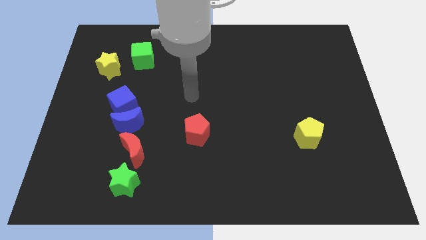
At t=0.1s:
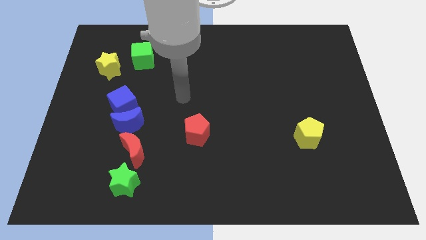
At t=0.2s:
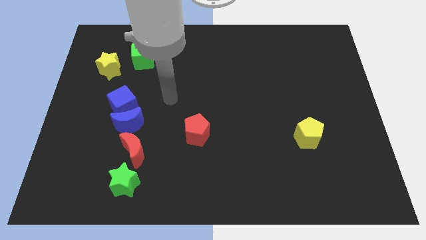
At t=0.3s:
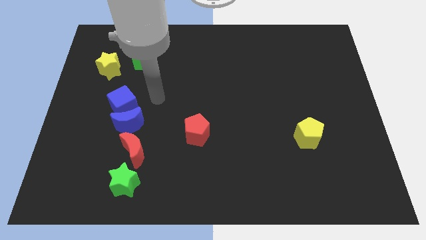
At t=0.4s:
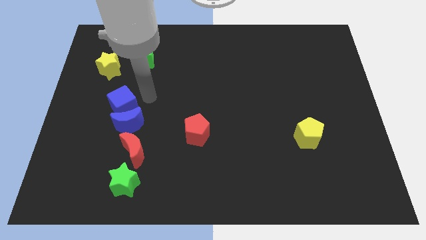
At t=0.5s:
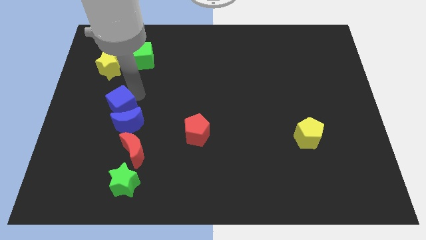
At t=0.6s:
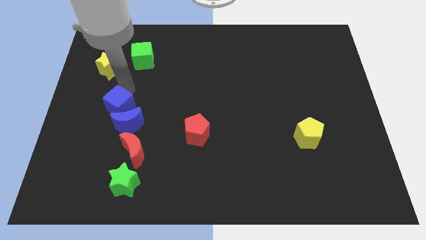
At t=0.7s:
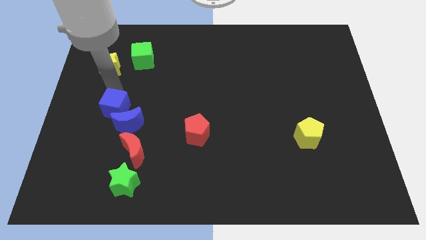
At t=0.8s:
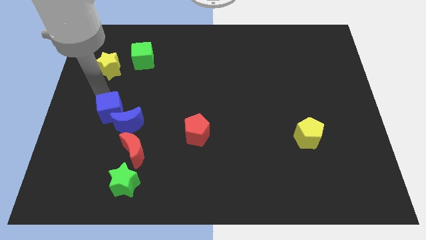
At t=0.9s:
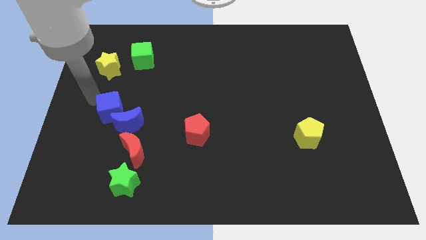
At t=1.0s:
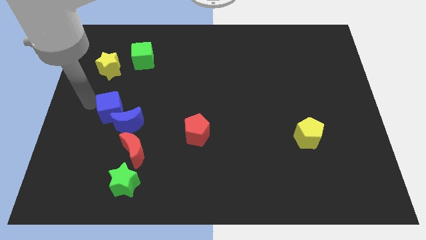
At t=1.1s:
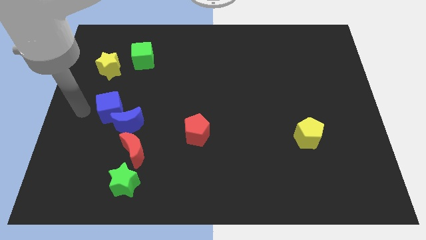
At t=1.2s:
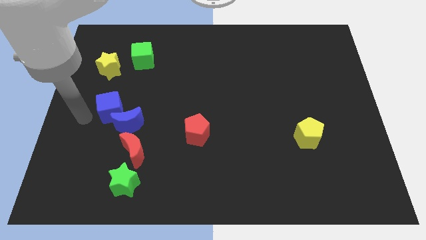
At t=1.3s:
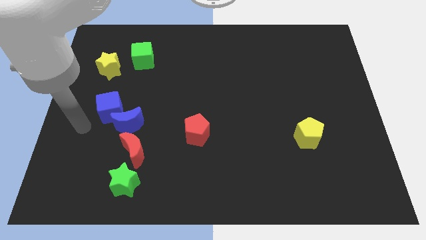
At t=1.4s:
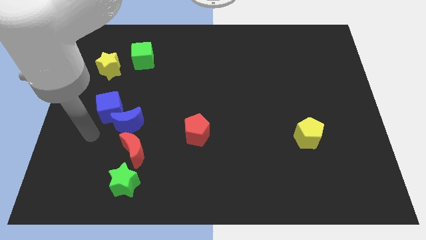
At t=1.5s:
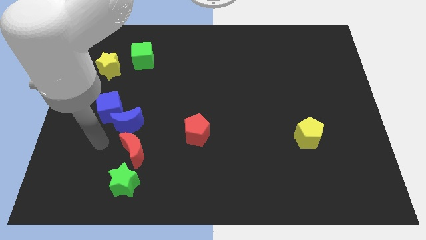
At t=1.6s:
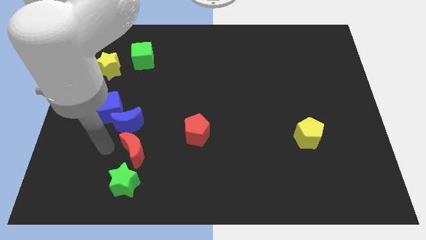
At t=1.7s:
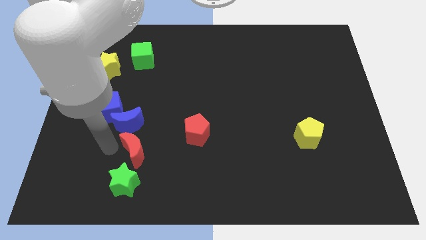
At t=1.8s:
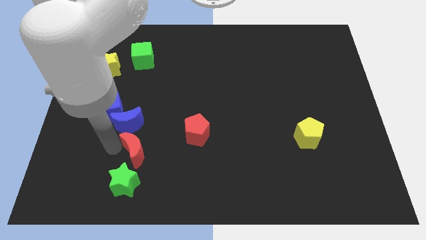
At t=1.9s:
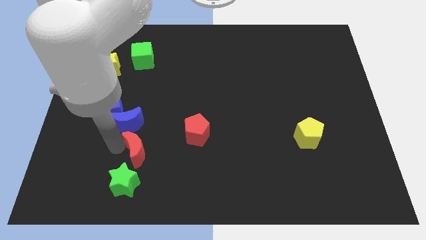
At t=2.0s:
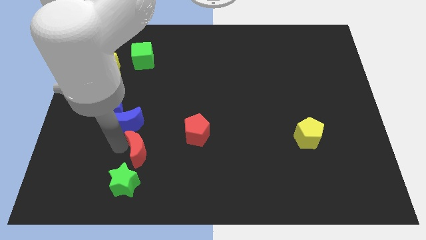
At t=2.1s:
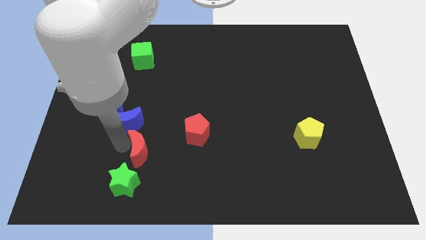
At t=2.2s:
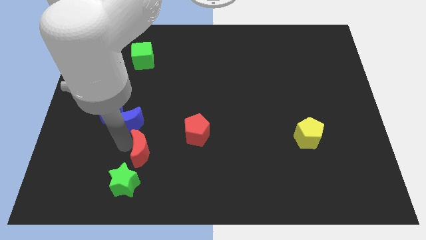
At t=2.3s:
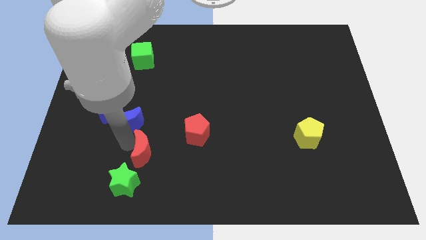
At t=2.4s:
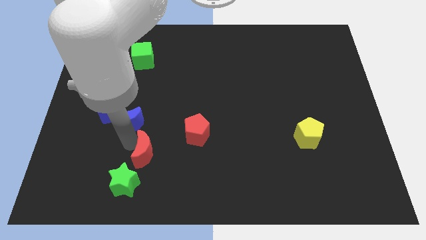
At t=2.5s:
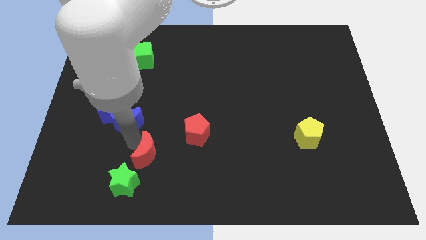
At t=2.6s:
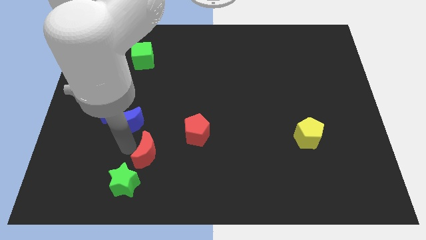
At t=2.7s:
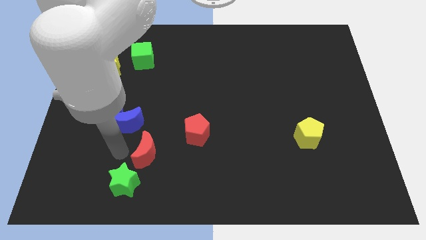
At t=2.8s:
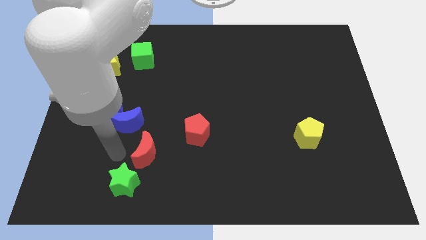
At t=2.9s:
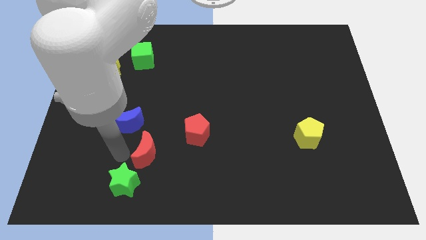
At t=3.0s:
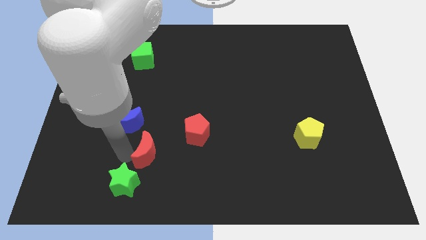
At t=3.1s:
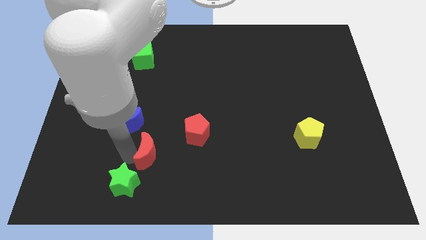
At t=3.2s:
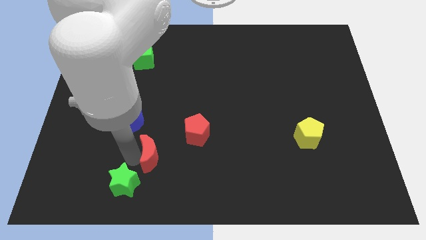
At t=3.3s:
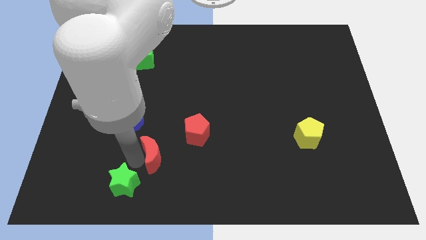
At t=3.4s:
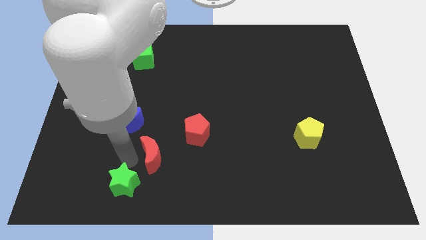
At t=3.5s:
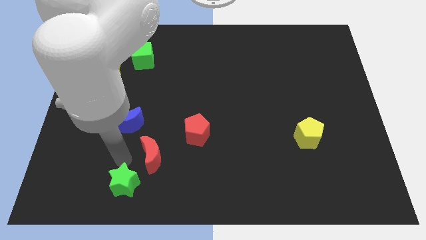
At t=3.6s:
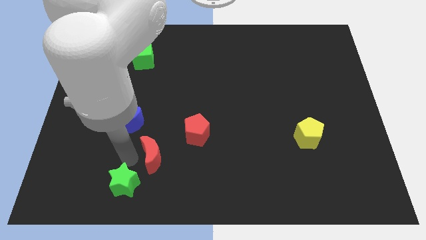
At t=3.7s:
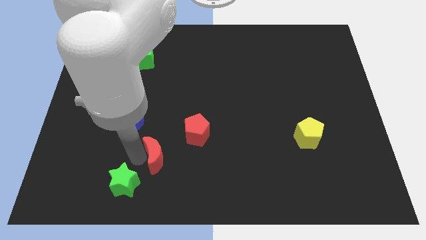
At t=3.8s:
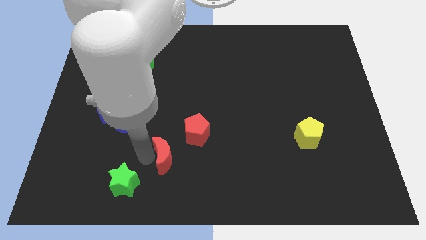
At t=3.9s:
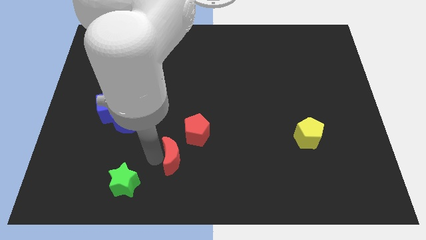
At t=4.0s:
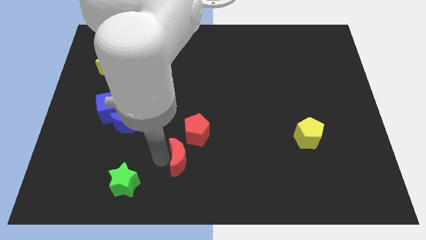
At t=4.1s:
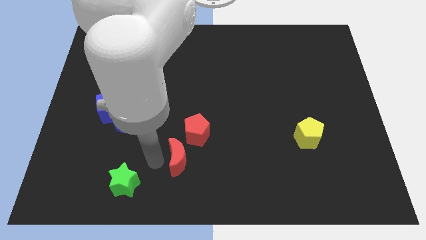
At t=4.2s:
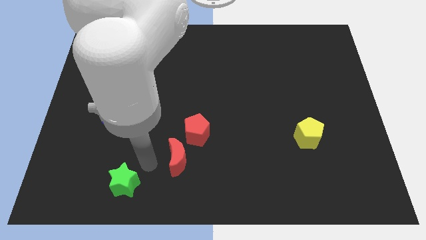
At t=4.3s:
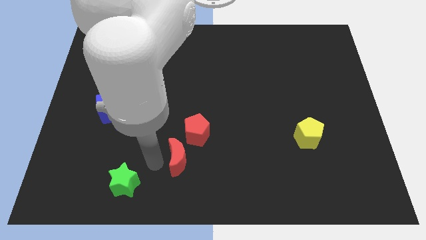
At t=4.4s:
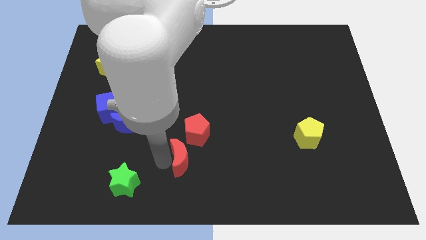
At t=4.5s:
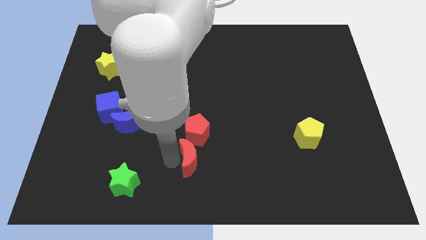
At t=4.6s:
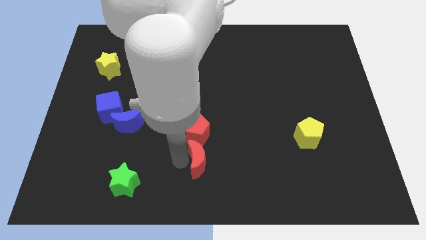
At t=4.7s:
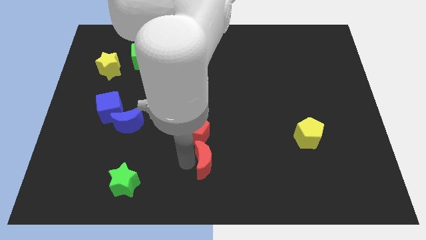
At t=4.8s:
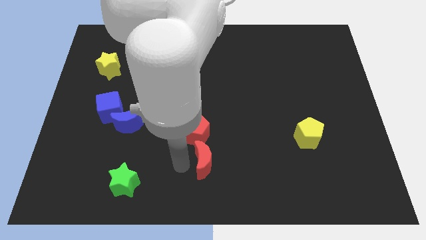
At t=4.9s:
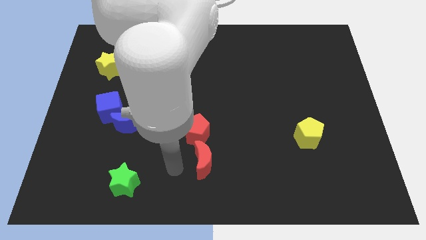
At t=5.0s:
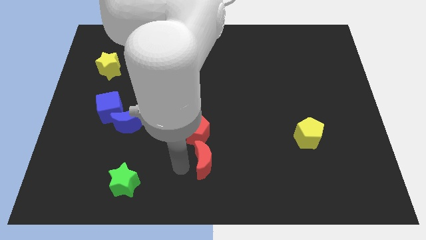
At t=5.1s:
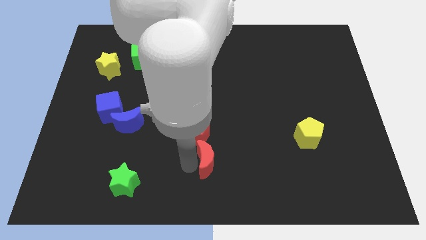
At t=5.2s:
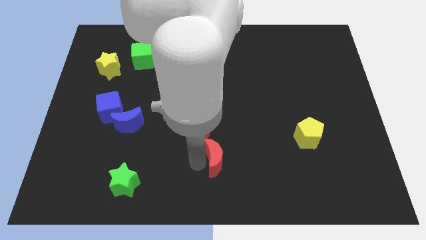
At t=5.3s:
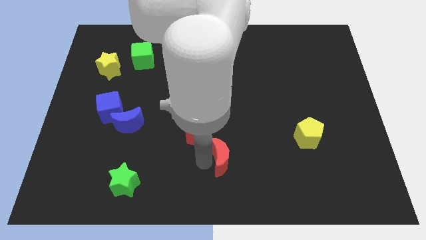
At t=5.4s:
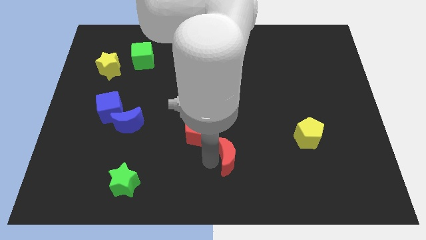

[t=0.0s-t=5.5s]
move the red moon right

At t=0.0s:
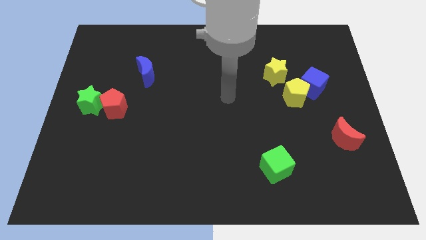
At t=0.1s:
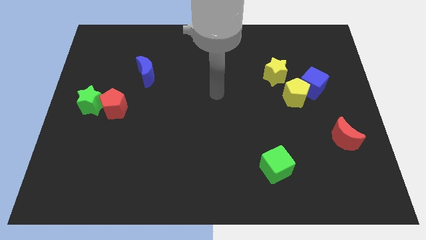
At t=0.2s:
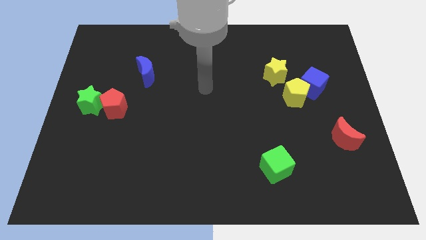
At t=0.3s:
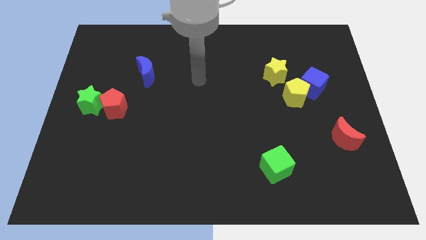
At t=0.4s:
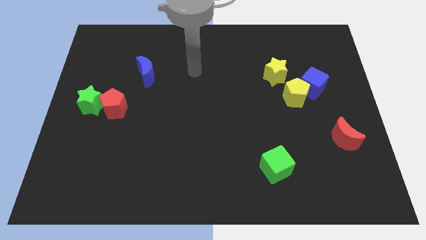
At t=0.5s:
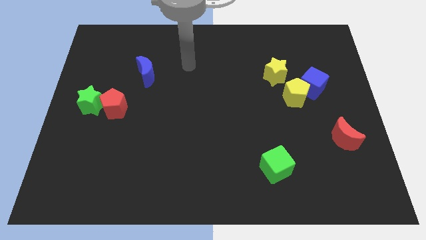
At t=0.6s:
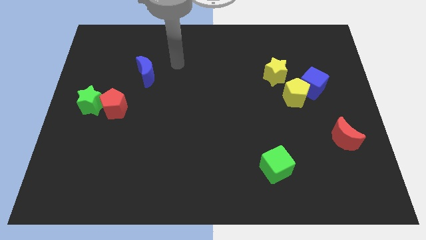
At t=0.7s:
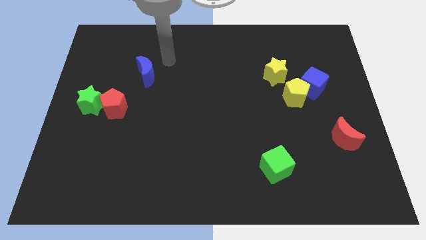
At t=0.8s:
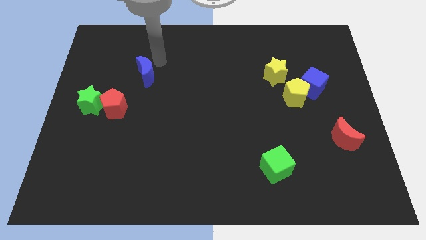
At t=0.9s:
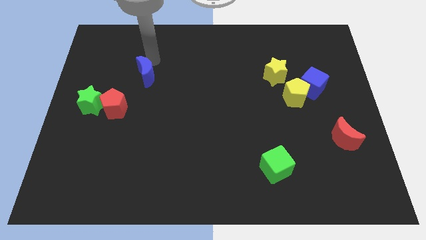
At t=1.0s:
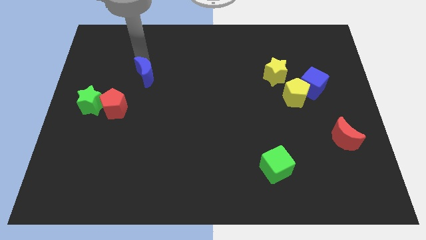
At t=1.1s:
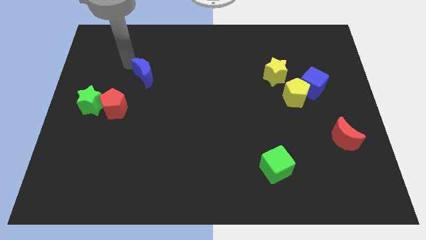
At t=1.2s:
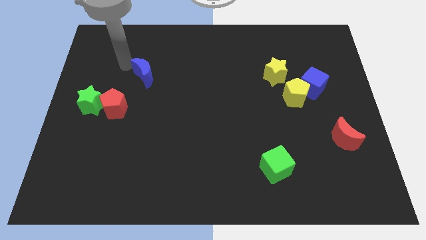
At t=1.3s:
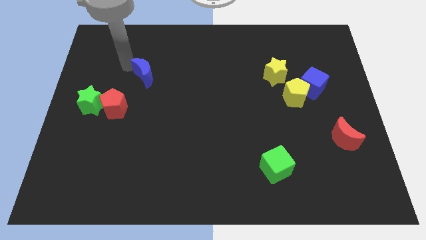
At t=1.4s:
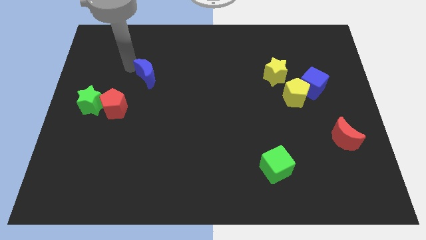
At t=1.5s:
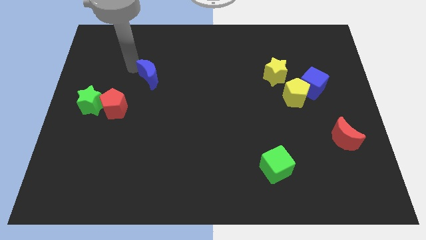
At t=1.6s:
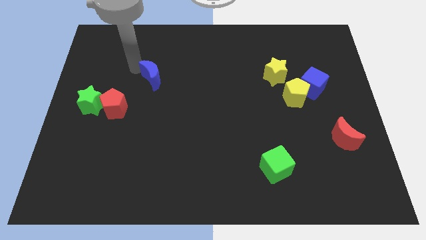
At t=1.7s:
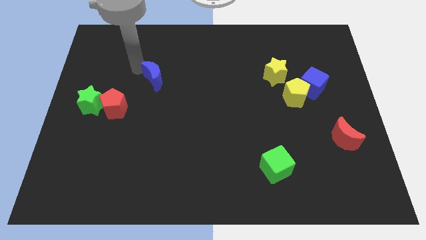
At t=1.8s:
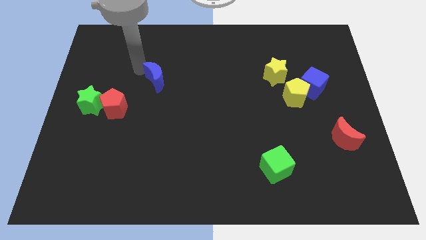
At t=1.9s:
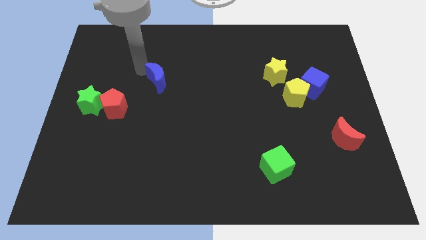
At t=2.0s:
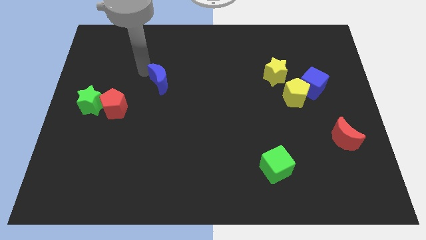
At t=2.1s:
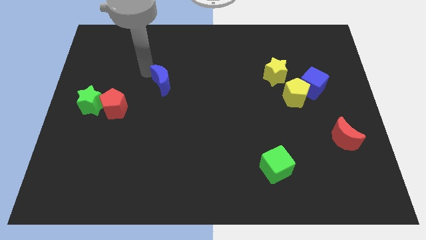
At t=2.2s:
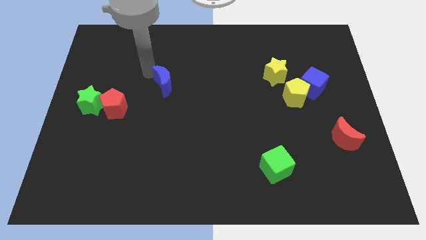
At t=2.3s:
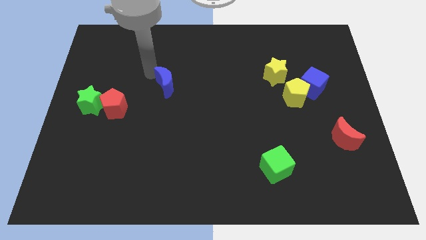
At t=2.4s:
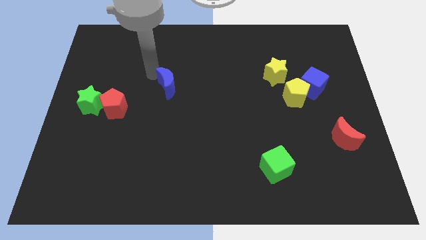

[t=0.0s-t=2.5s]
push the blue moon a bit down and right
